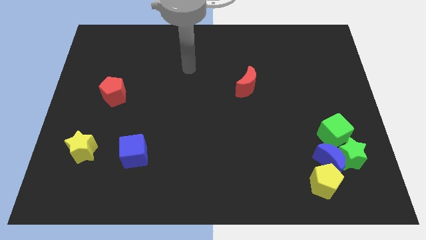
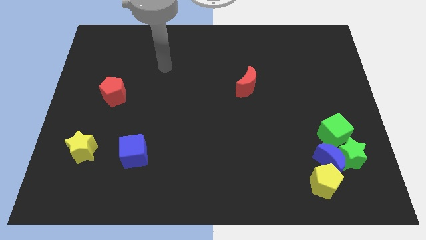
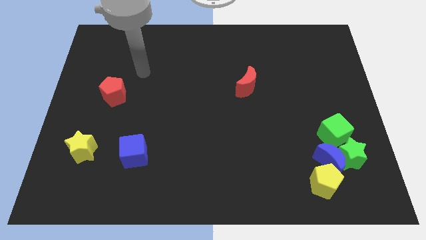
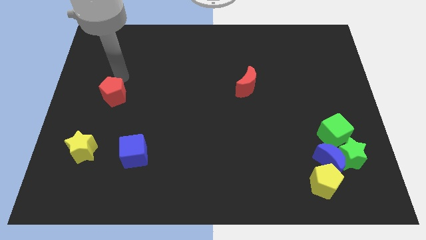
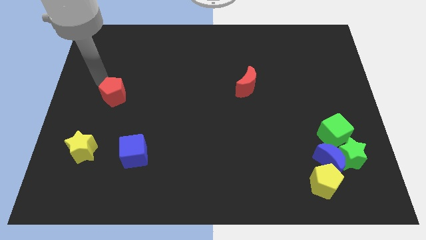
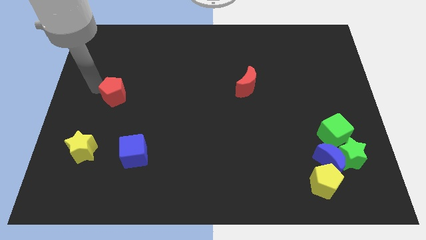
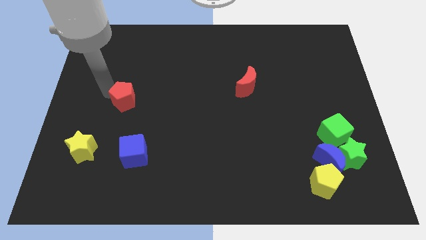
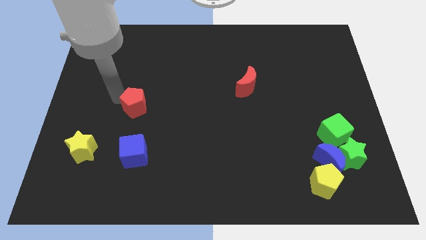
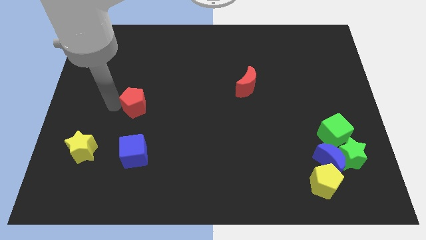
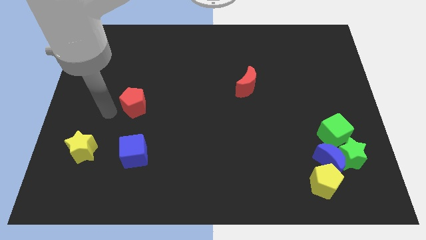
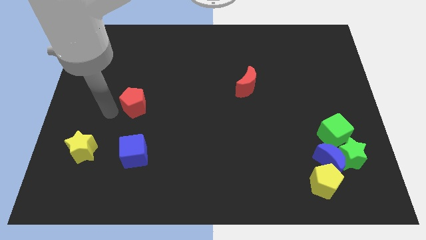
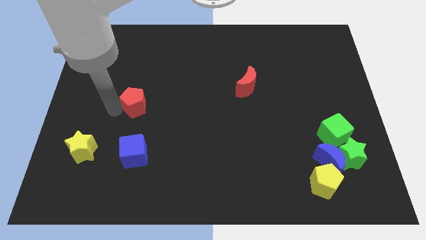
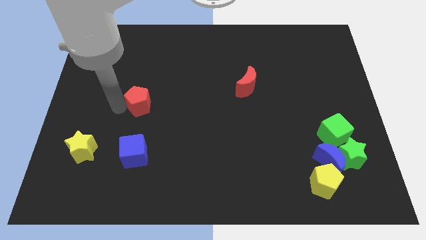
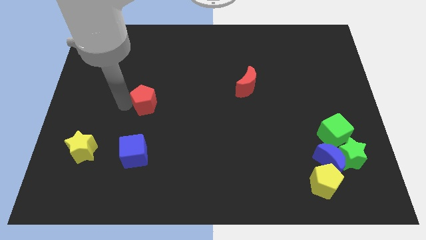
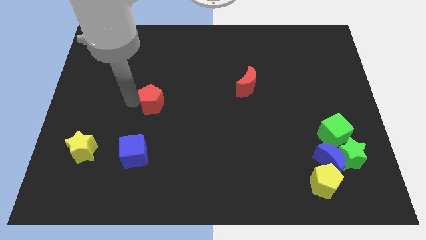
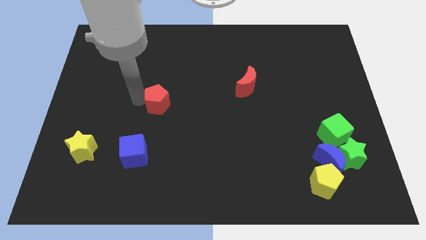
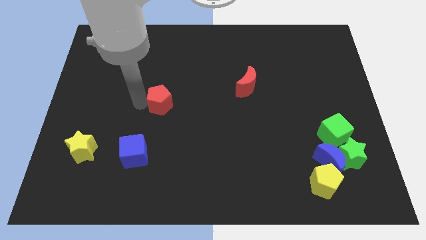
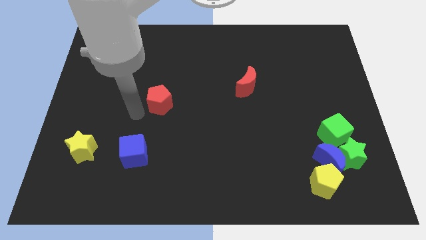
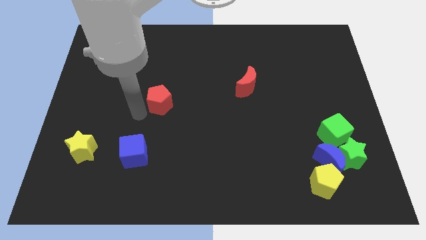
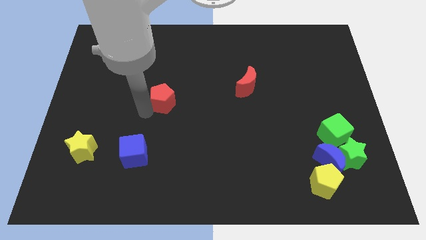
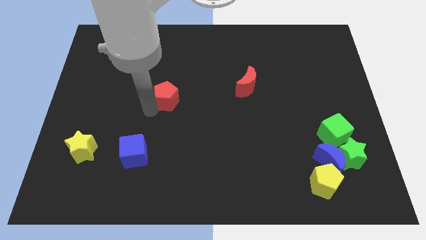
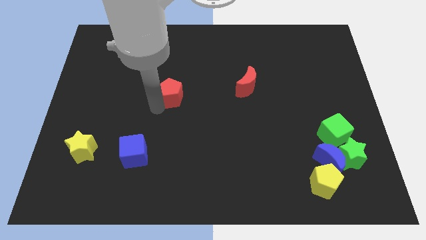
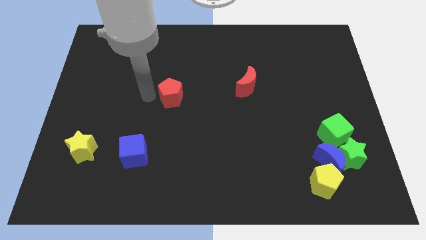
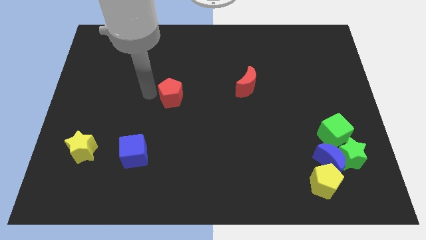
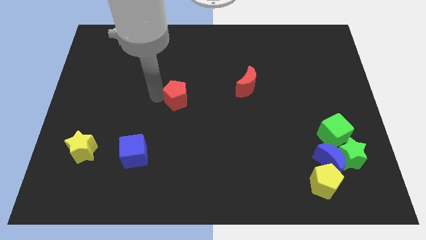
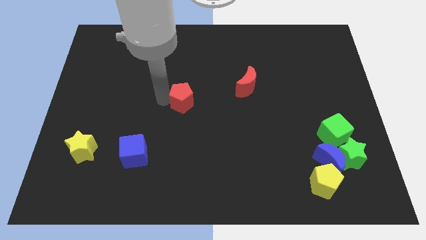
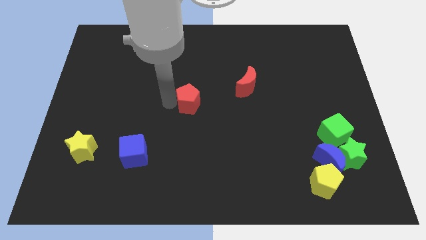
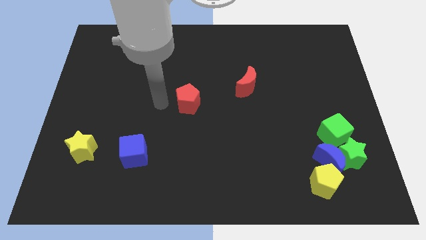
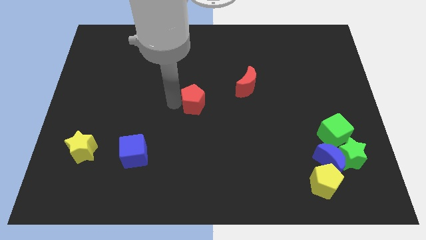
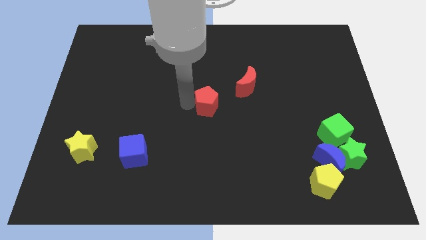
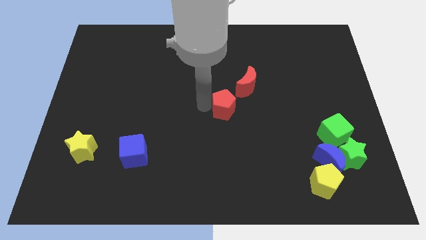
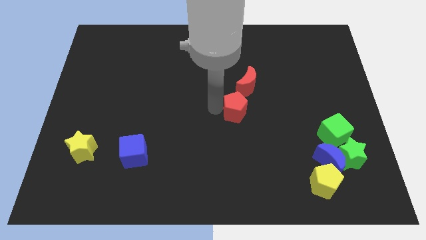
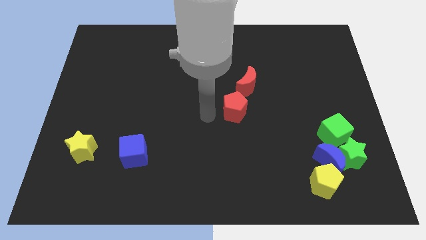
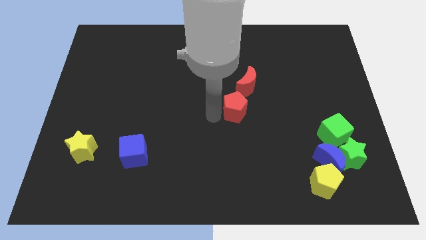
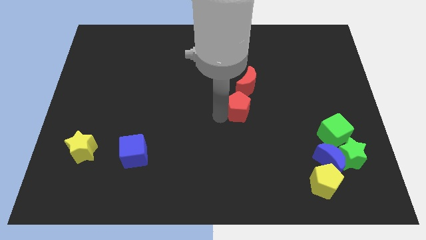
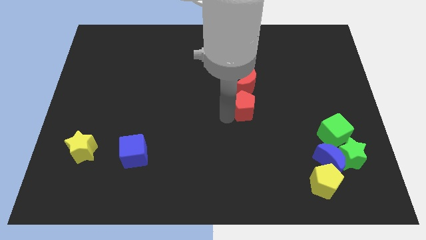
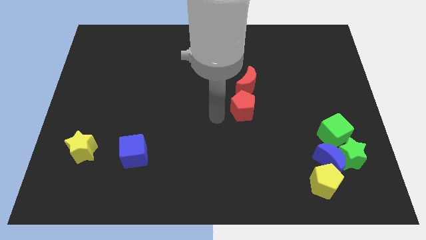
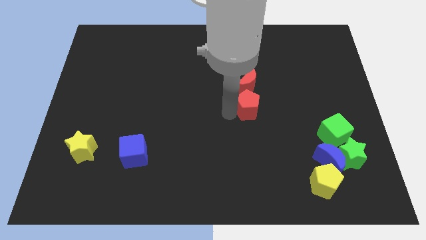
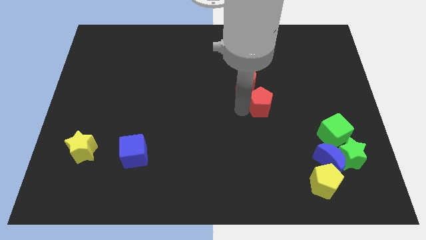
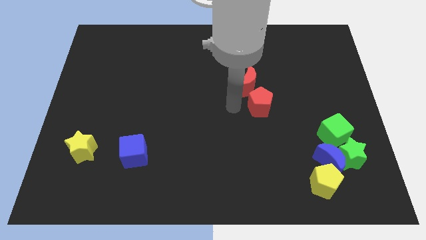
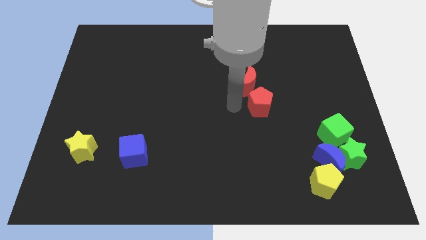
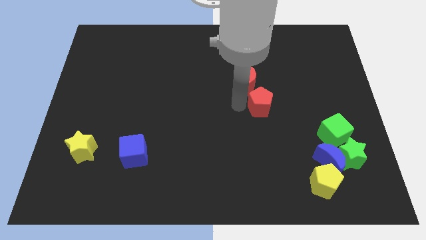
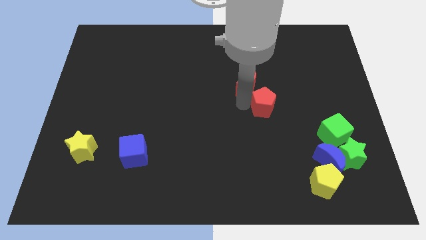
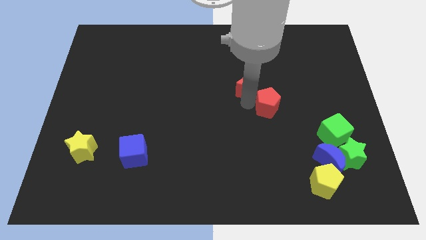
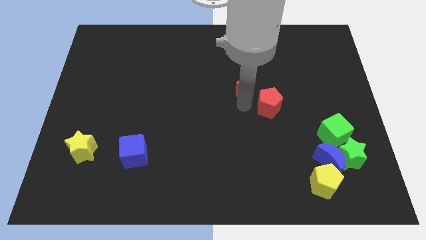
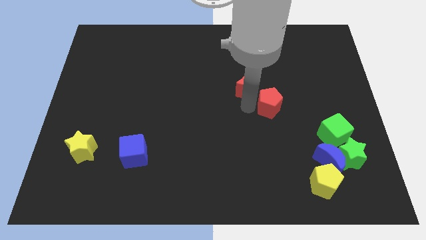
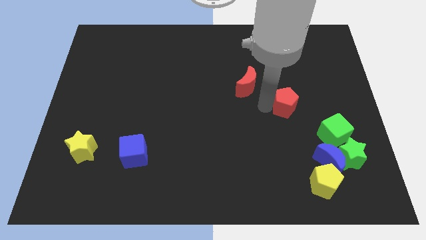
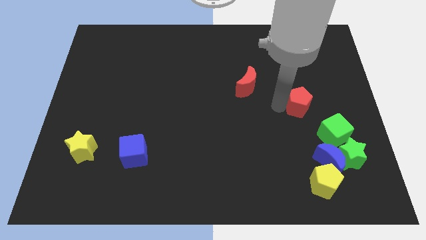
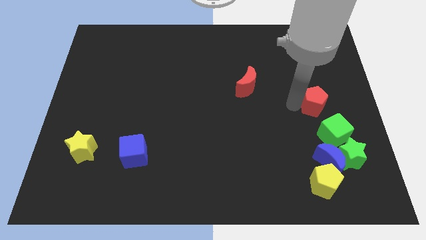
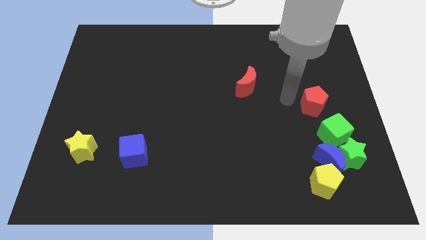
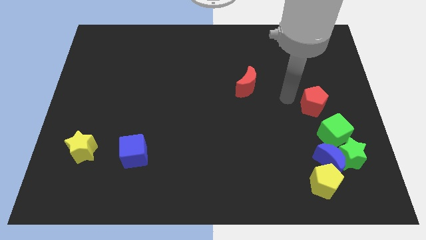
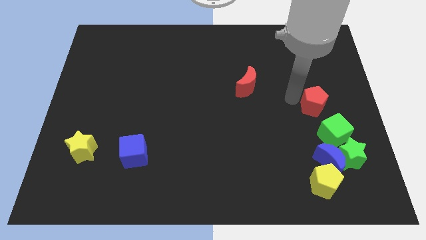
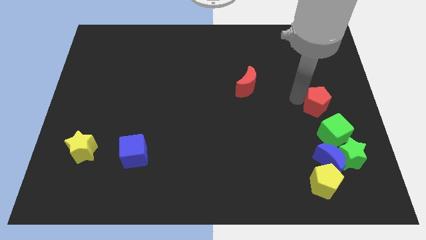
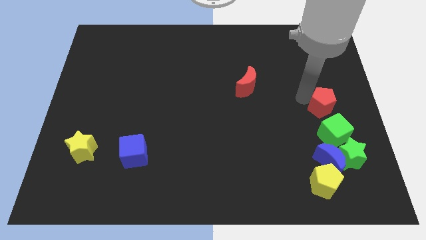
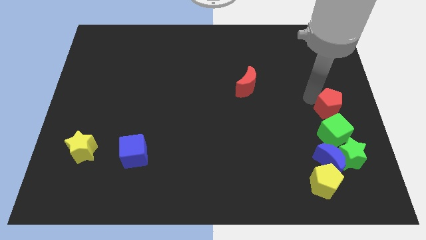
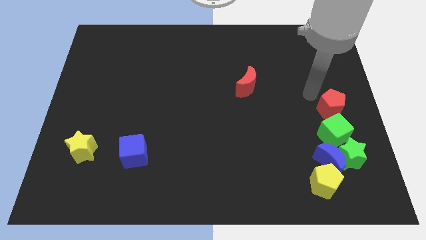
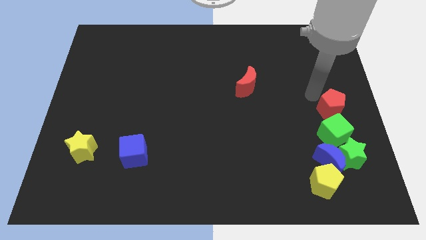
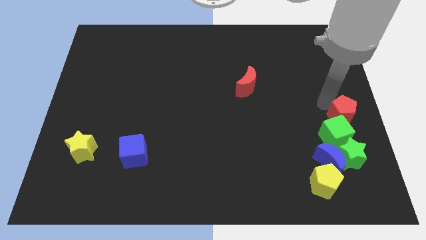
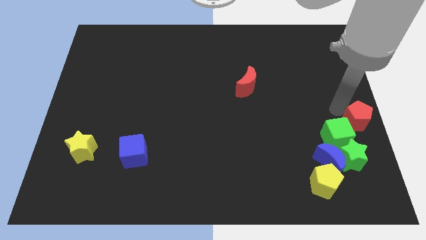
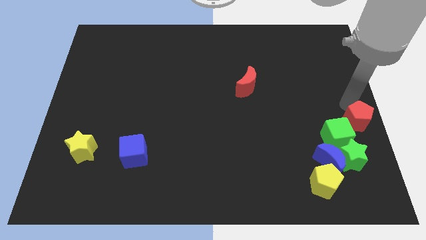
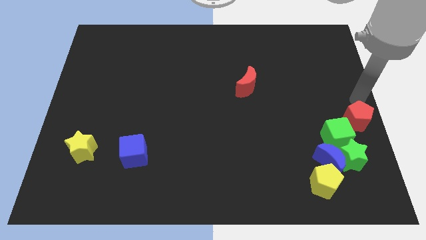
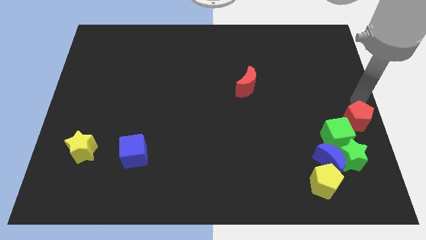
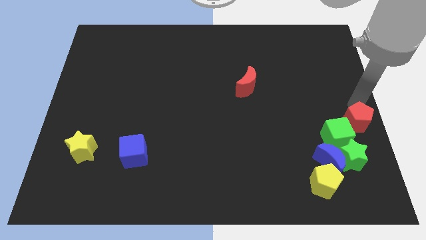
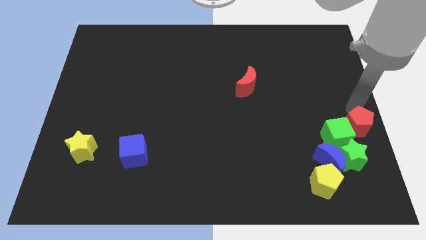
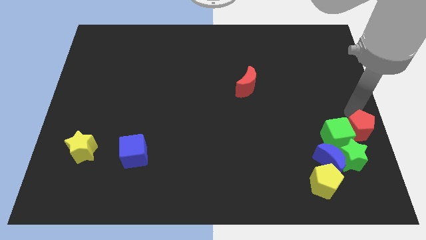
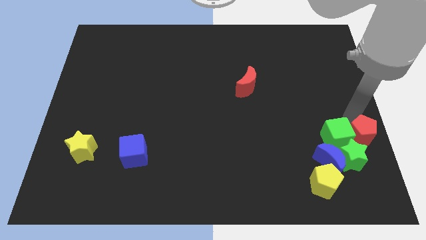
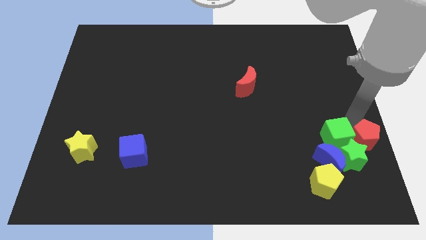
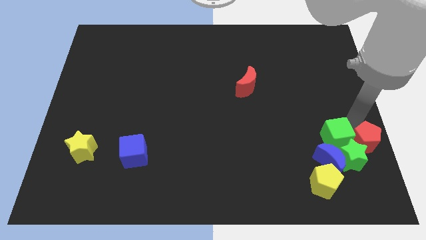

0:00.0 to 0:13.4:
put the red pentagon to the green star

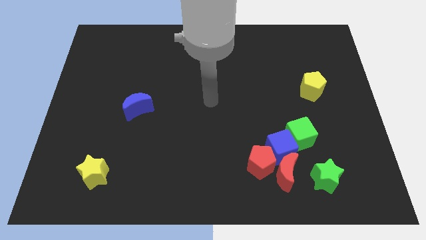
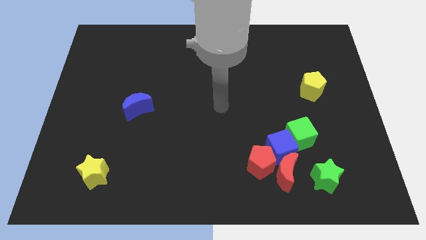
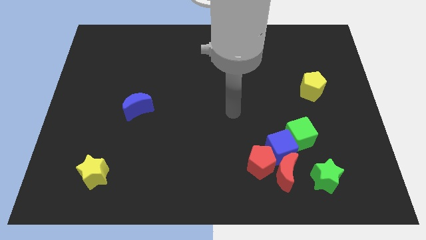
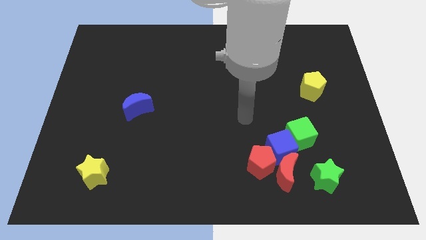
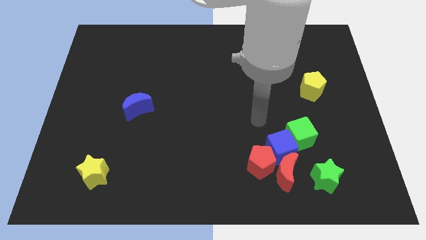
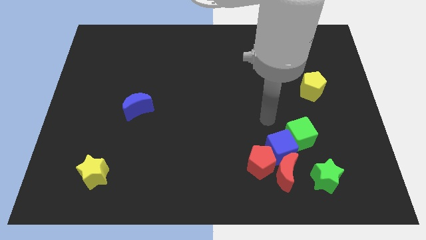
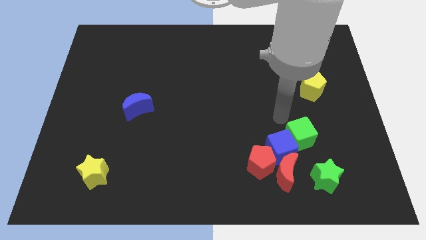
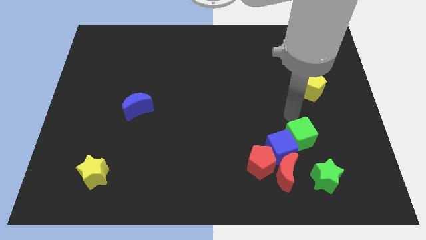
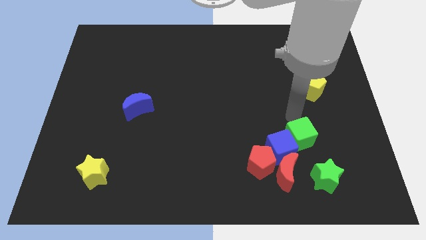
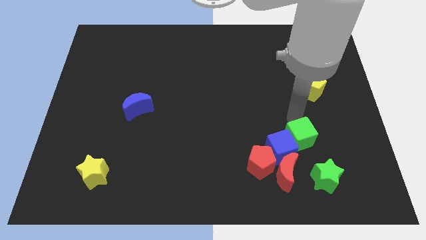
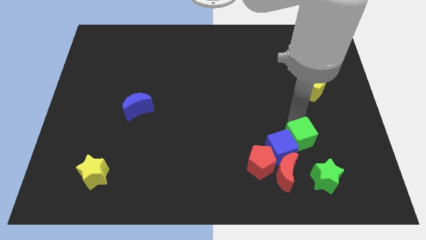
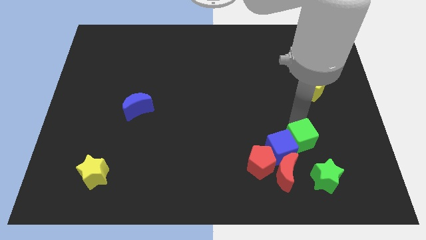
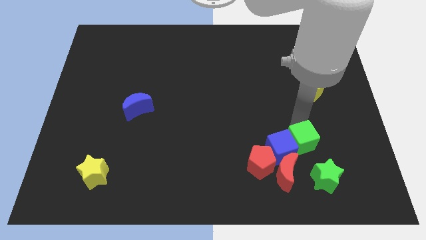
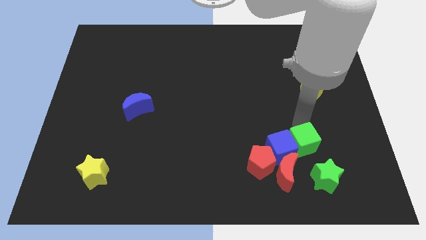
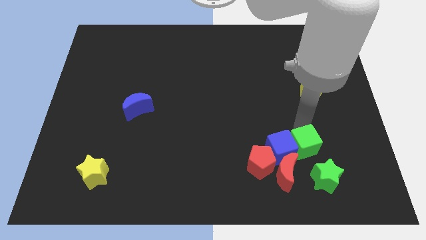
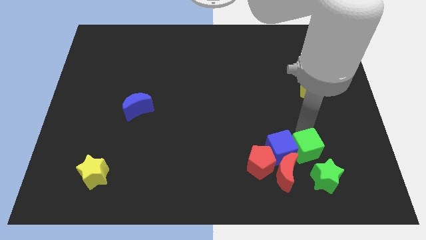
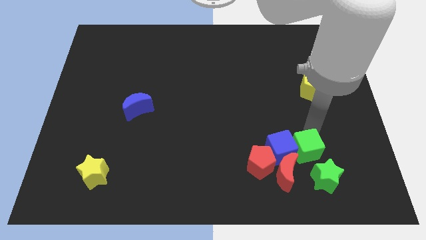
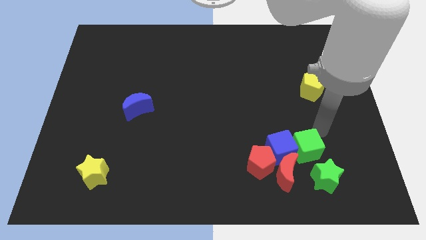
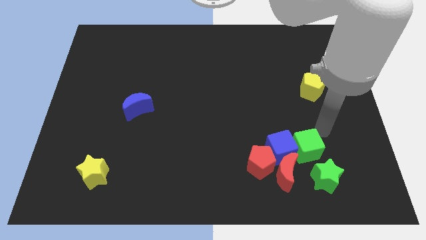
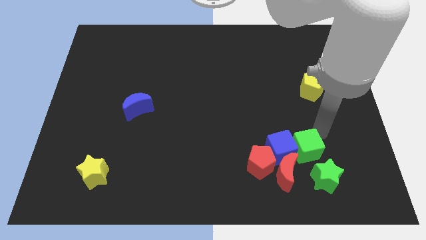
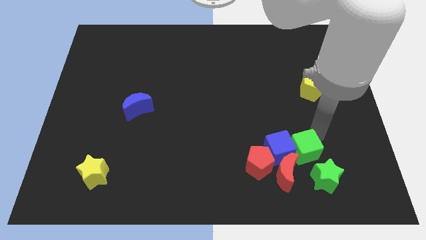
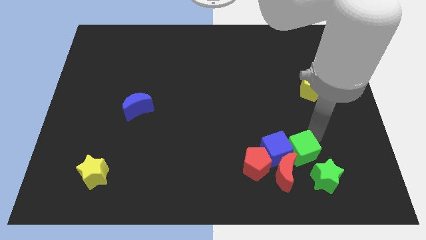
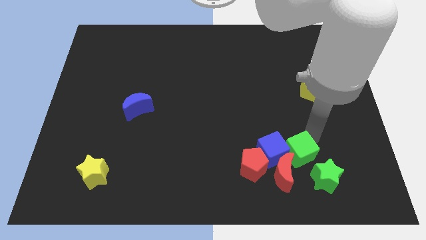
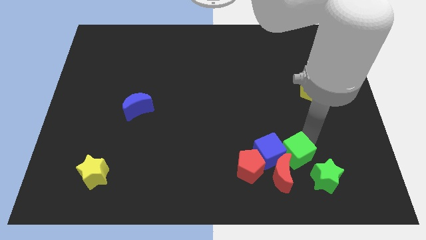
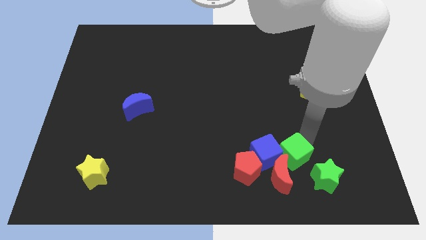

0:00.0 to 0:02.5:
slide the green cube next to the red moon
